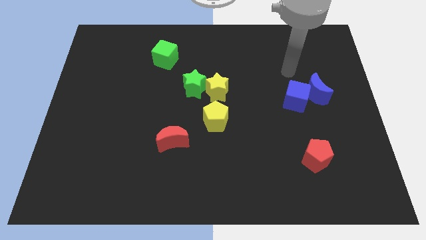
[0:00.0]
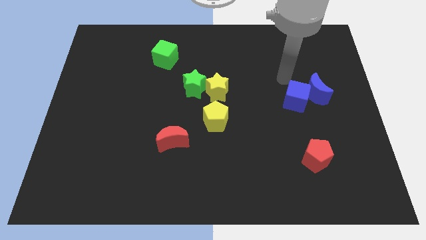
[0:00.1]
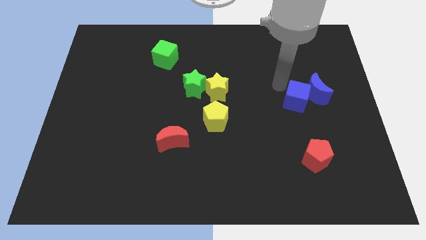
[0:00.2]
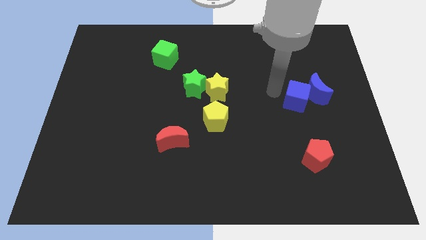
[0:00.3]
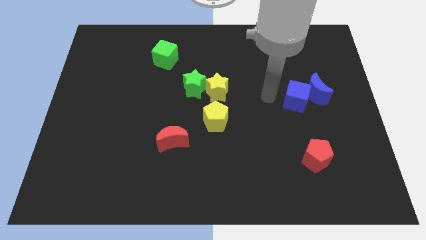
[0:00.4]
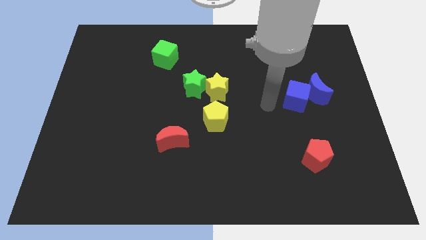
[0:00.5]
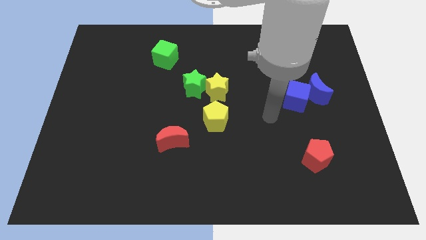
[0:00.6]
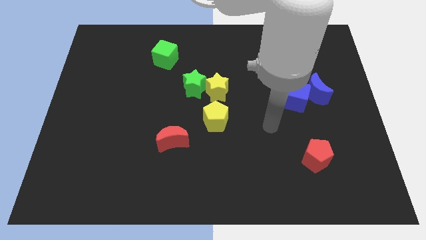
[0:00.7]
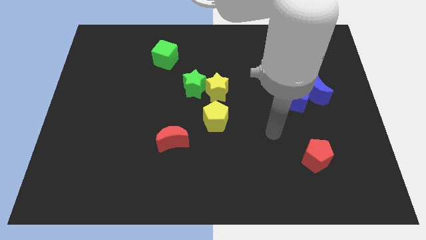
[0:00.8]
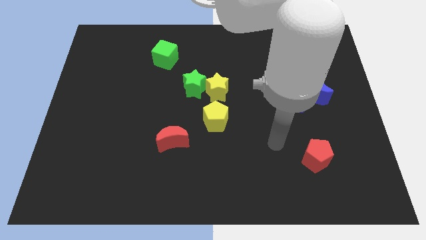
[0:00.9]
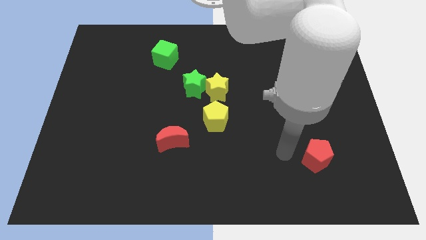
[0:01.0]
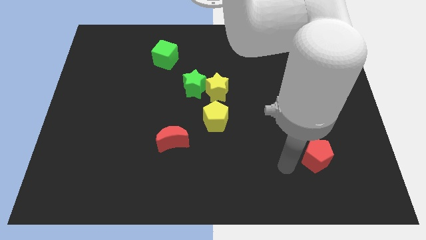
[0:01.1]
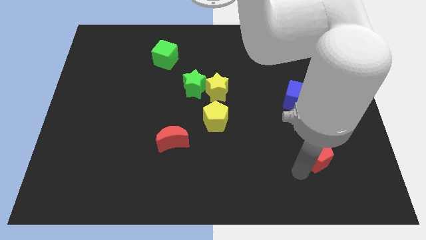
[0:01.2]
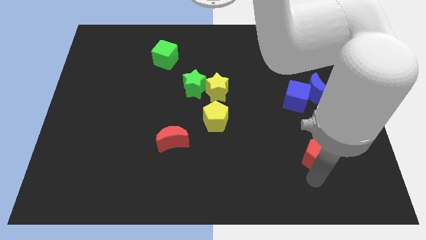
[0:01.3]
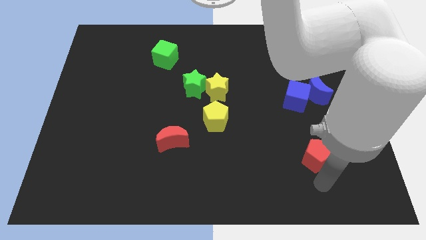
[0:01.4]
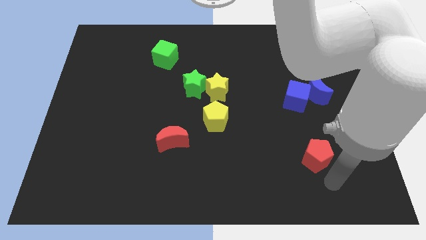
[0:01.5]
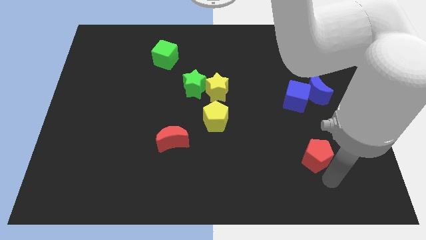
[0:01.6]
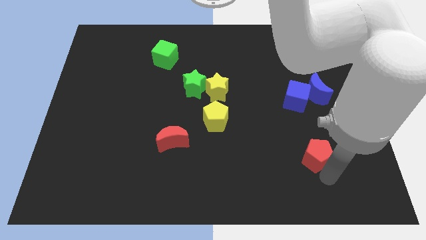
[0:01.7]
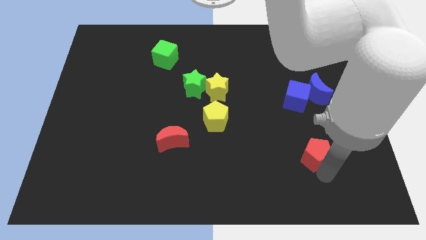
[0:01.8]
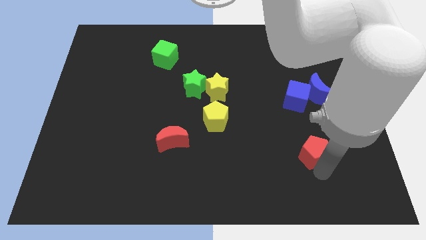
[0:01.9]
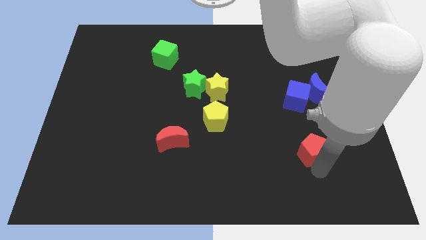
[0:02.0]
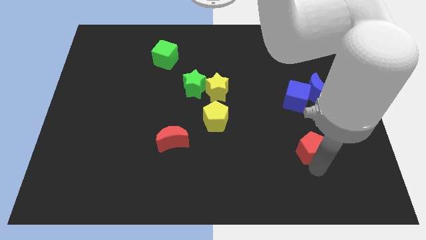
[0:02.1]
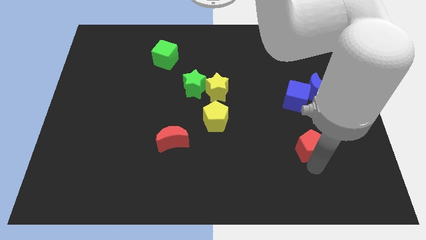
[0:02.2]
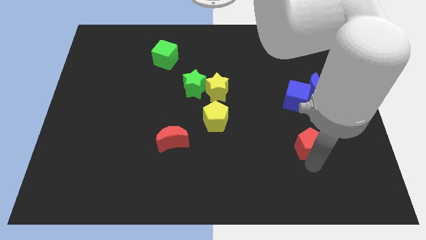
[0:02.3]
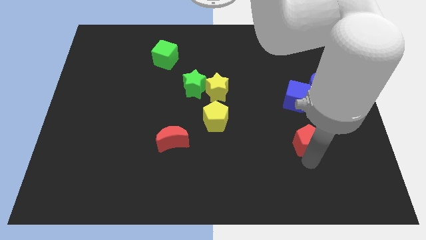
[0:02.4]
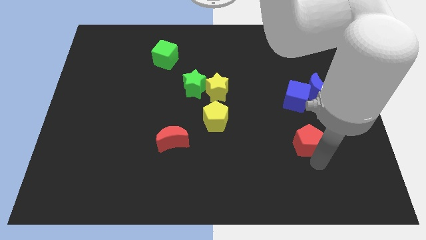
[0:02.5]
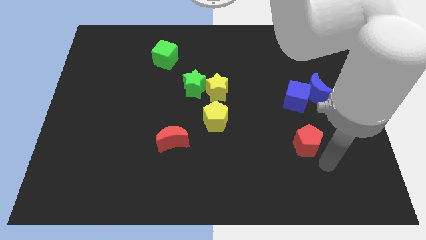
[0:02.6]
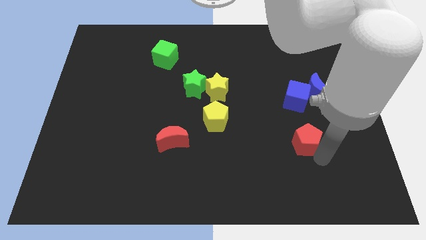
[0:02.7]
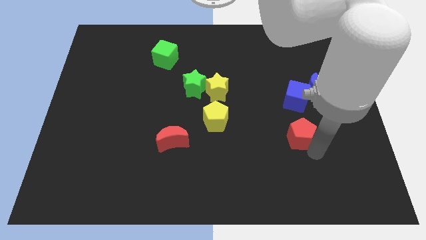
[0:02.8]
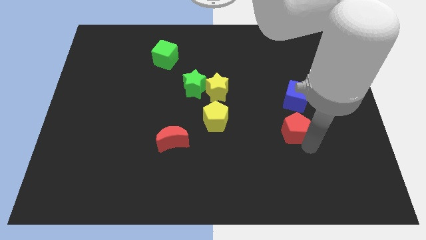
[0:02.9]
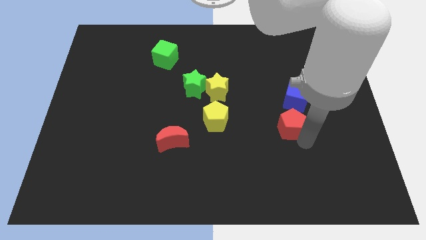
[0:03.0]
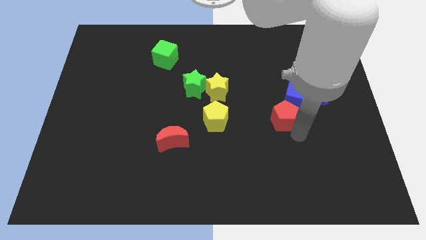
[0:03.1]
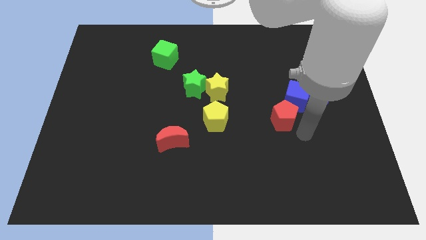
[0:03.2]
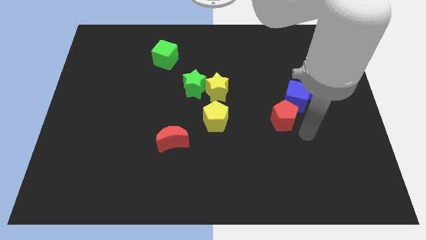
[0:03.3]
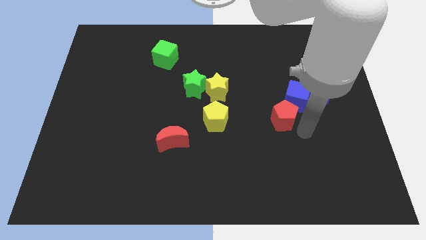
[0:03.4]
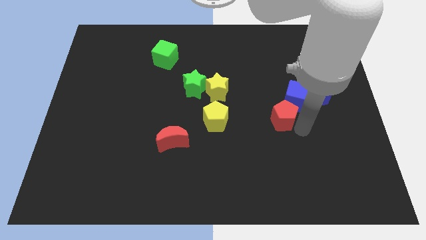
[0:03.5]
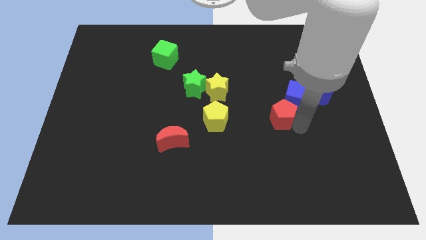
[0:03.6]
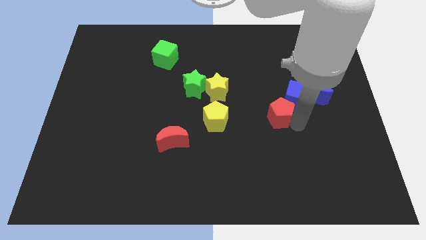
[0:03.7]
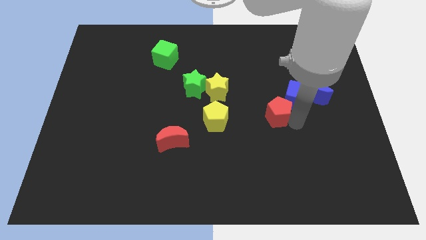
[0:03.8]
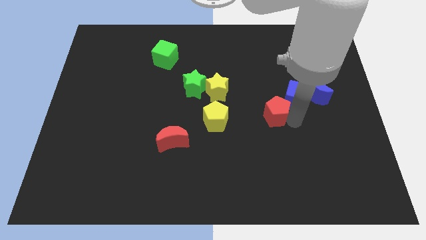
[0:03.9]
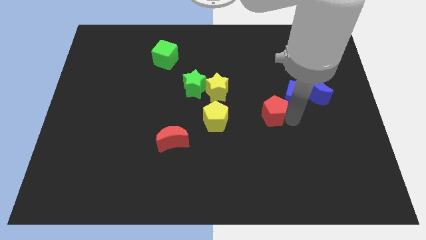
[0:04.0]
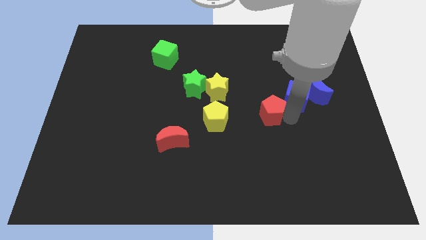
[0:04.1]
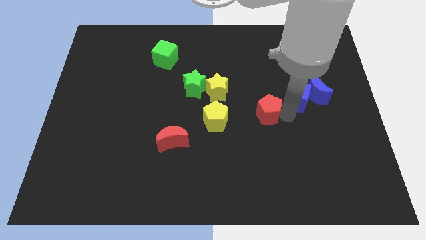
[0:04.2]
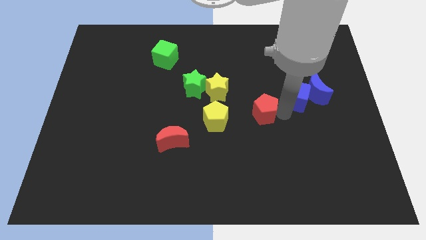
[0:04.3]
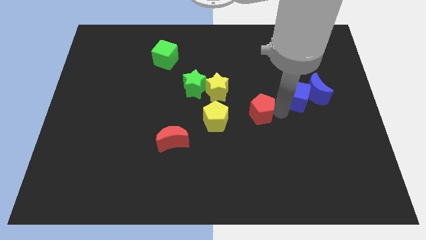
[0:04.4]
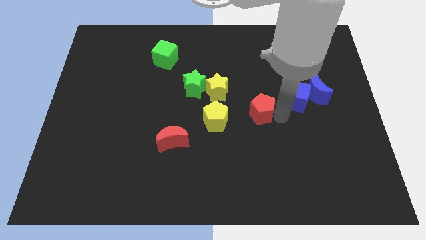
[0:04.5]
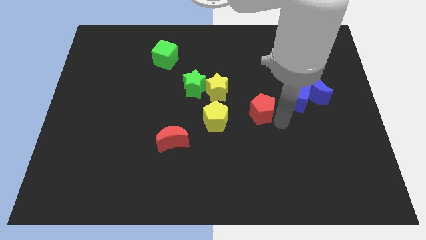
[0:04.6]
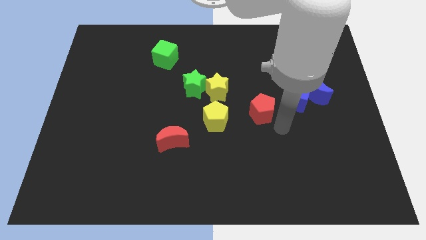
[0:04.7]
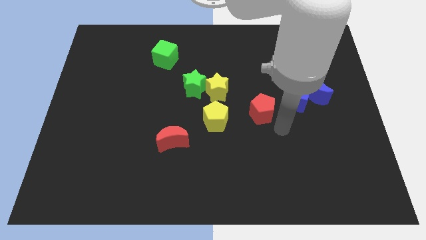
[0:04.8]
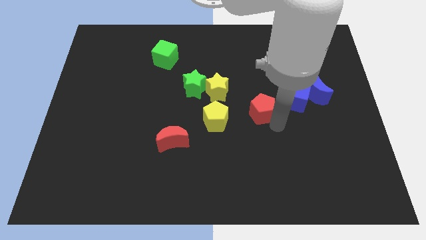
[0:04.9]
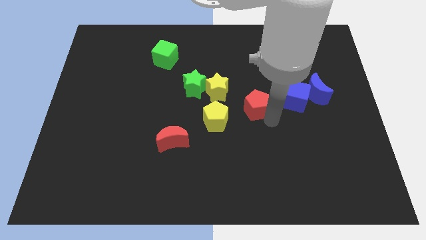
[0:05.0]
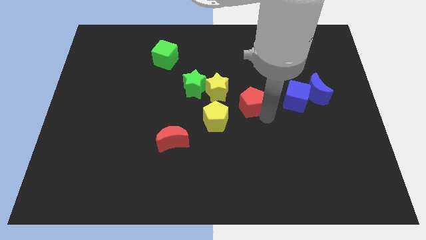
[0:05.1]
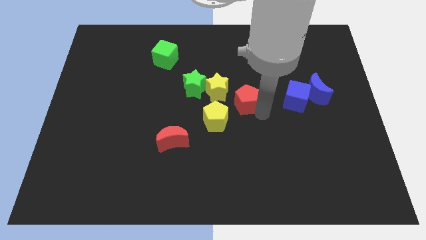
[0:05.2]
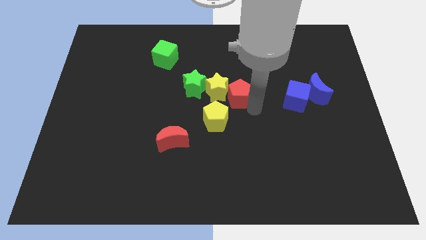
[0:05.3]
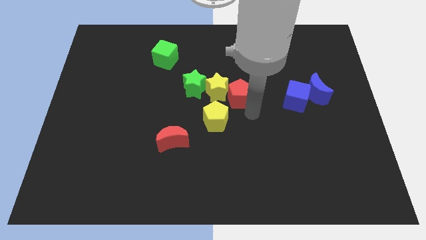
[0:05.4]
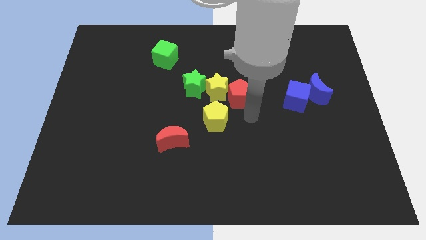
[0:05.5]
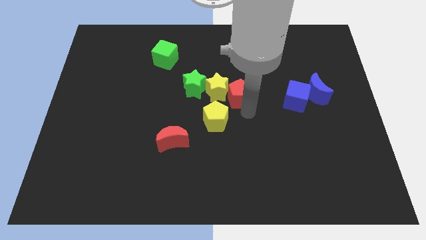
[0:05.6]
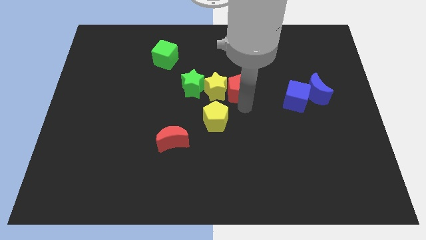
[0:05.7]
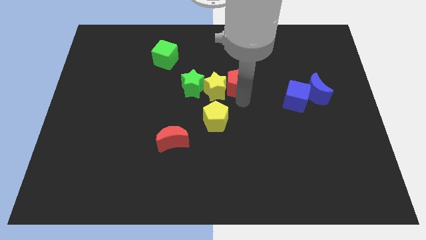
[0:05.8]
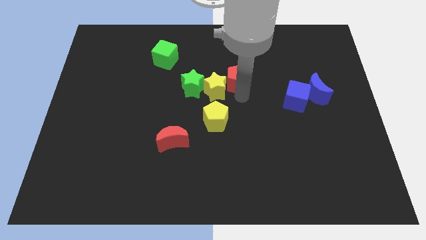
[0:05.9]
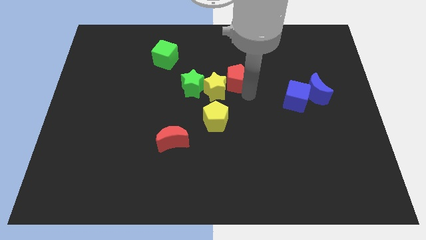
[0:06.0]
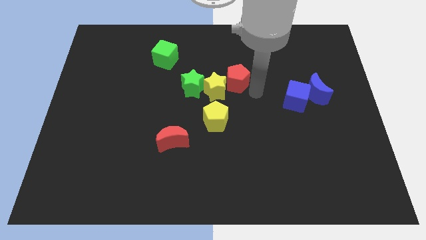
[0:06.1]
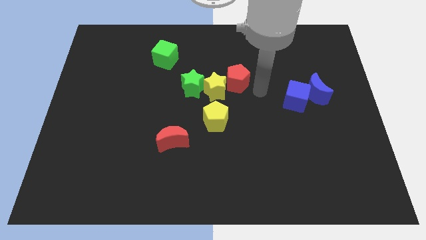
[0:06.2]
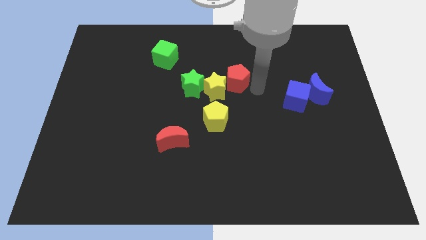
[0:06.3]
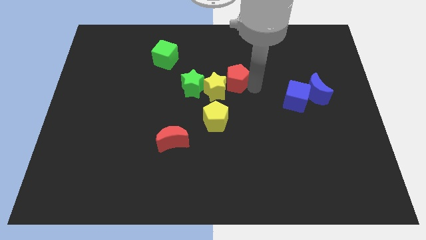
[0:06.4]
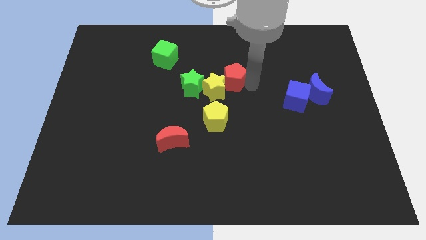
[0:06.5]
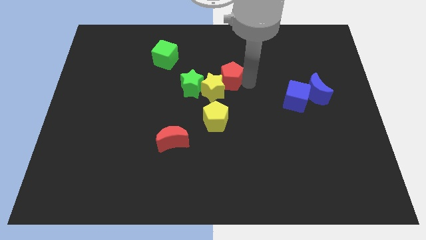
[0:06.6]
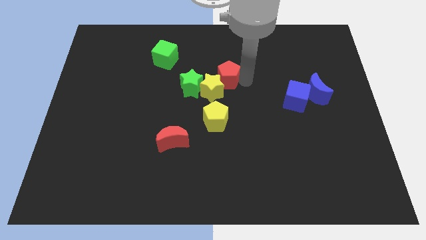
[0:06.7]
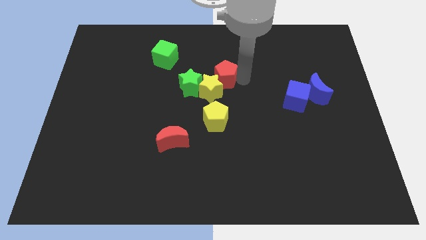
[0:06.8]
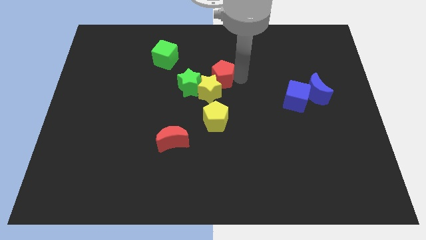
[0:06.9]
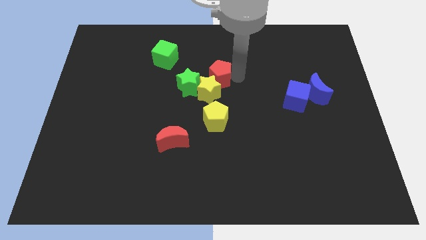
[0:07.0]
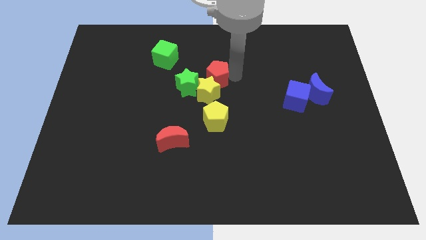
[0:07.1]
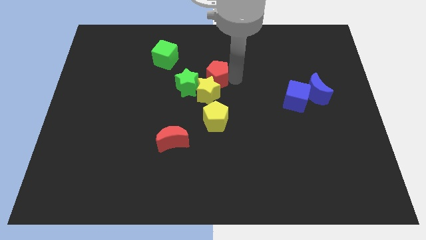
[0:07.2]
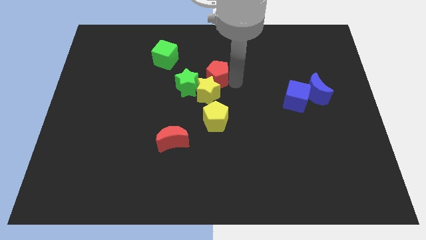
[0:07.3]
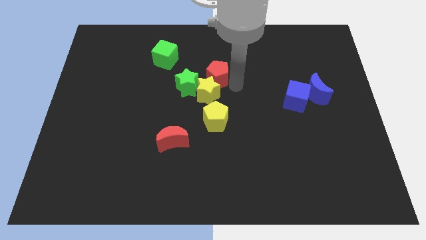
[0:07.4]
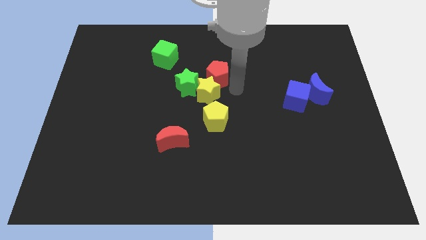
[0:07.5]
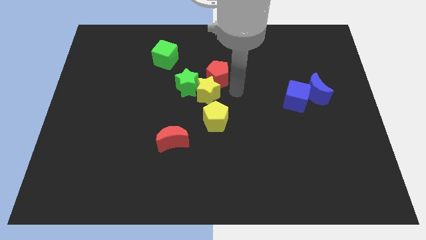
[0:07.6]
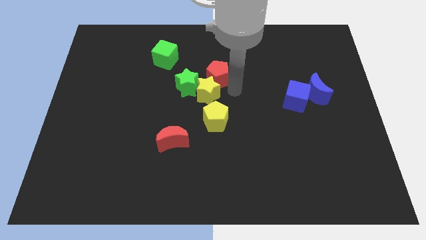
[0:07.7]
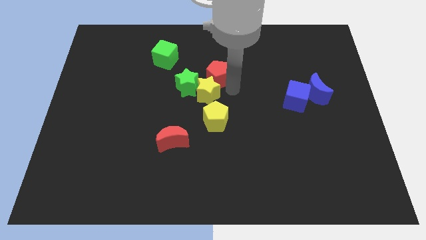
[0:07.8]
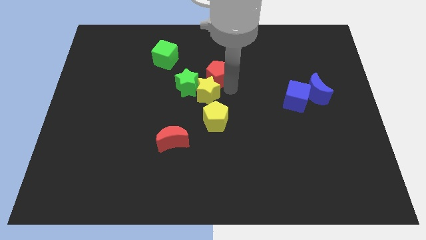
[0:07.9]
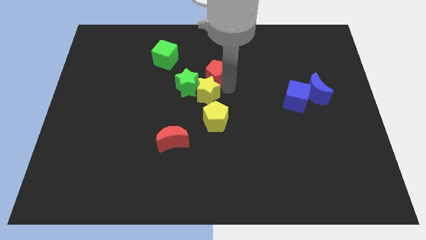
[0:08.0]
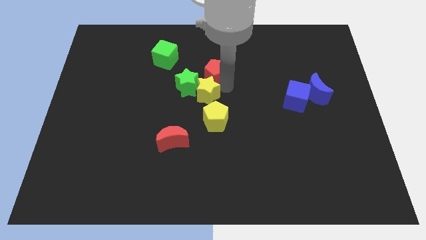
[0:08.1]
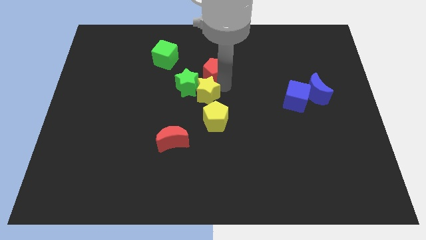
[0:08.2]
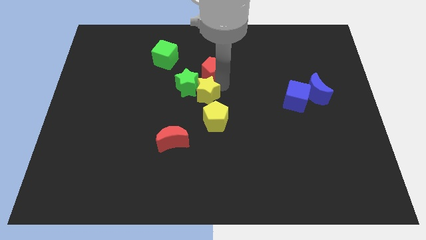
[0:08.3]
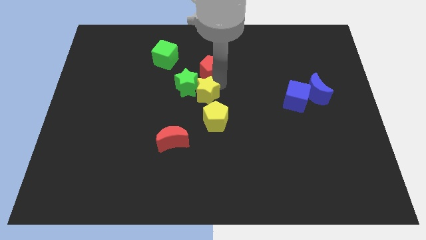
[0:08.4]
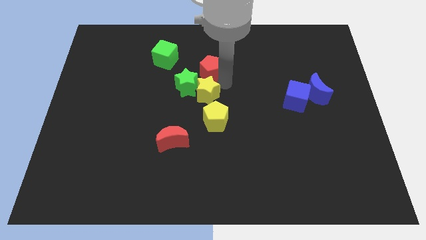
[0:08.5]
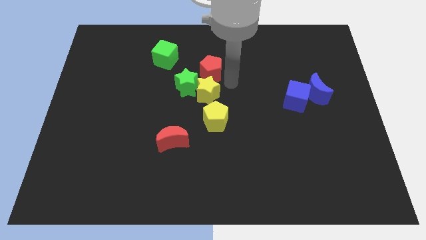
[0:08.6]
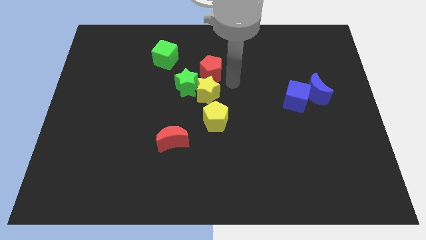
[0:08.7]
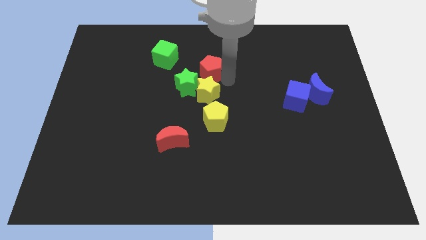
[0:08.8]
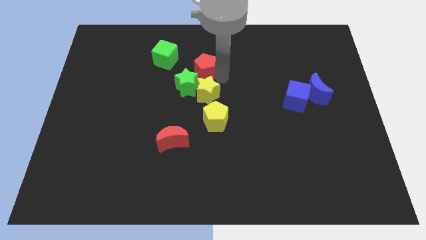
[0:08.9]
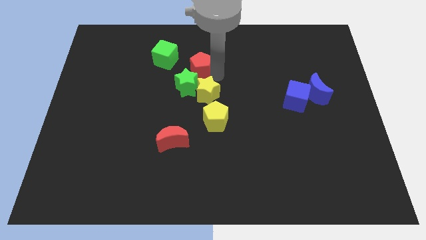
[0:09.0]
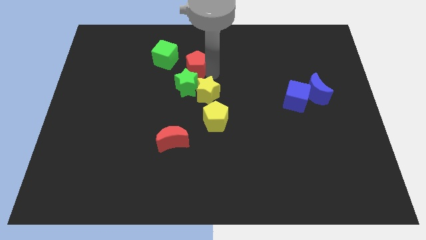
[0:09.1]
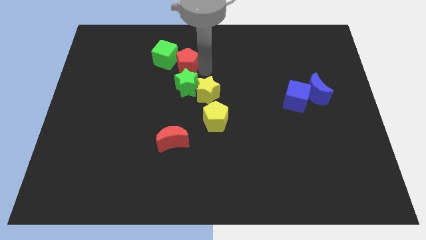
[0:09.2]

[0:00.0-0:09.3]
slide the red pentagon towards the green cube
